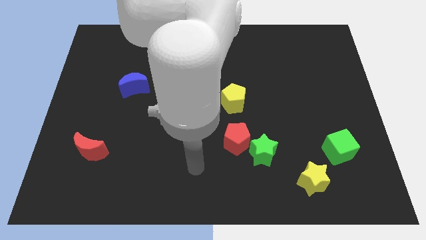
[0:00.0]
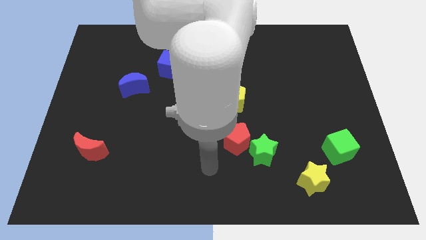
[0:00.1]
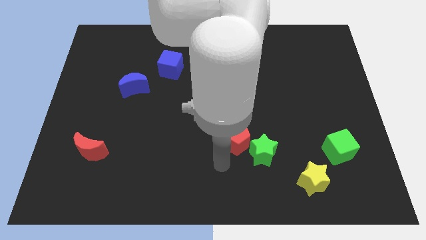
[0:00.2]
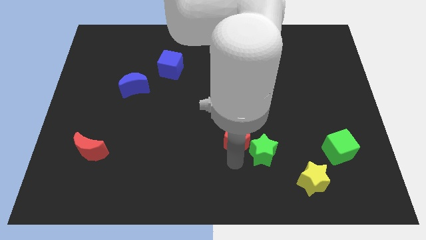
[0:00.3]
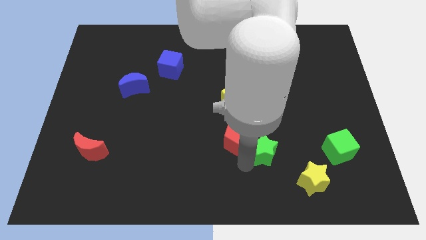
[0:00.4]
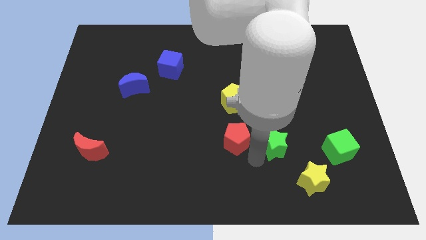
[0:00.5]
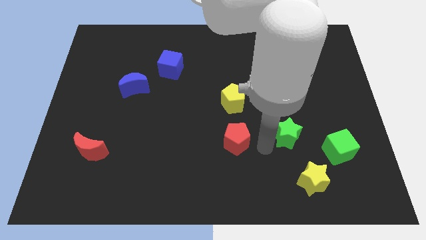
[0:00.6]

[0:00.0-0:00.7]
pull the red pentagon apart from the green star

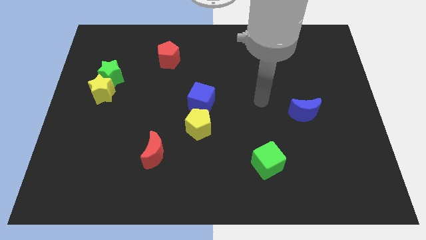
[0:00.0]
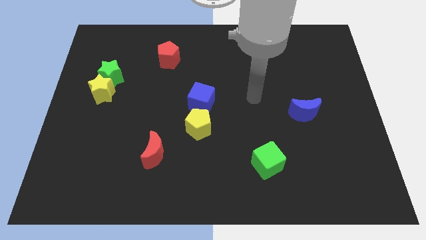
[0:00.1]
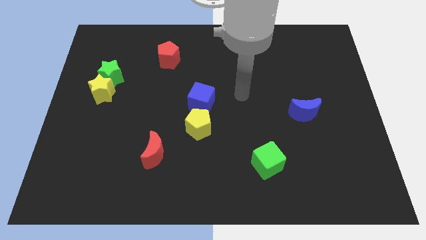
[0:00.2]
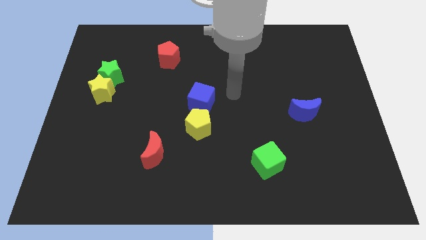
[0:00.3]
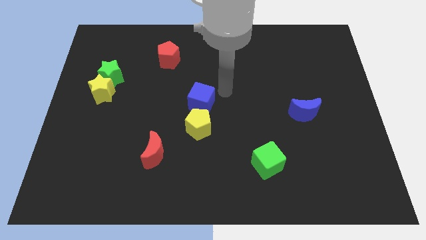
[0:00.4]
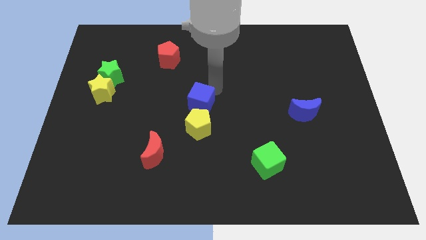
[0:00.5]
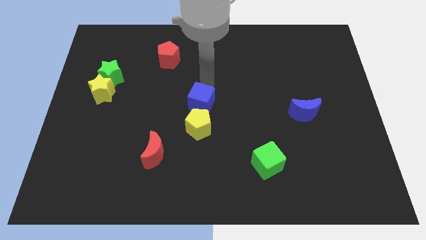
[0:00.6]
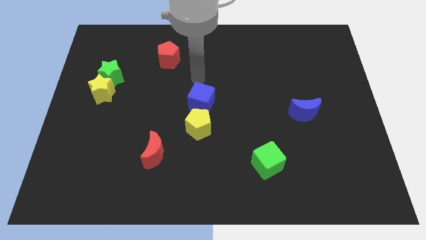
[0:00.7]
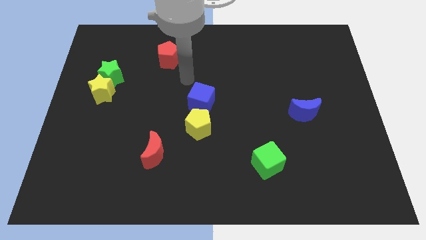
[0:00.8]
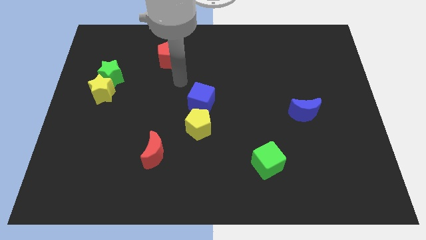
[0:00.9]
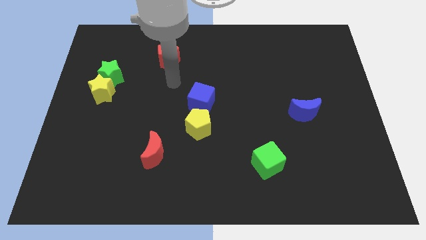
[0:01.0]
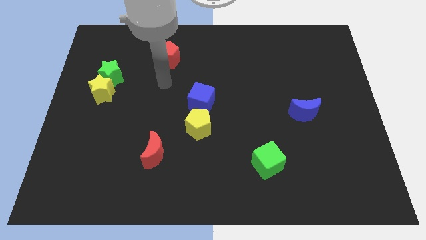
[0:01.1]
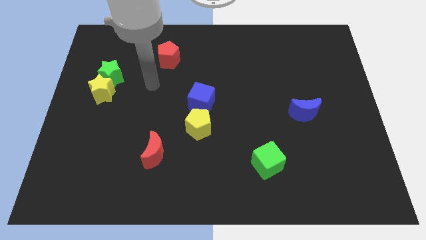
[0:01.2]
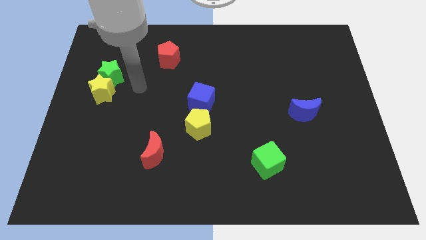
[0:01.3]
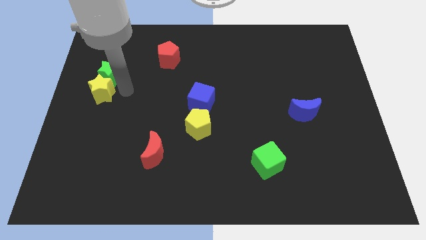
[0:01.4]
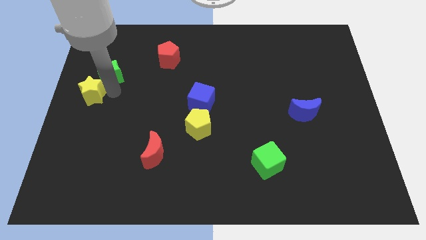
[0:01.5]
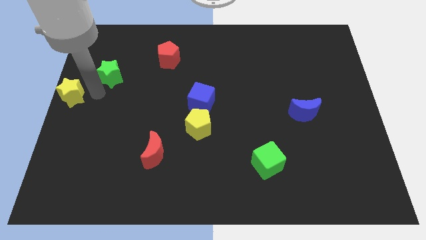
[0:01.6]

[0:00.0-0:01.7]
move the green star away from the yellow star

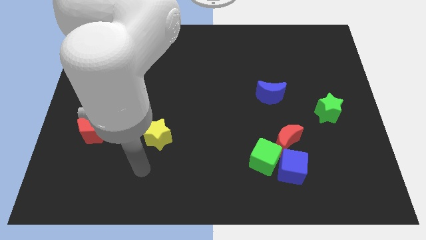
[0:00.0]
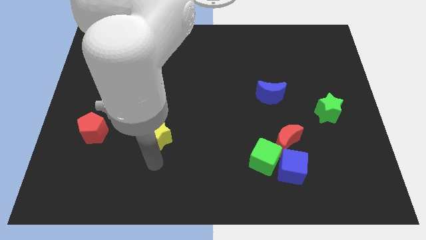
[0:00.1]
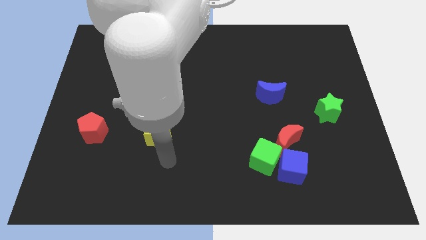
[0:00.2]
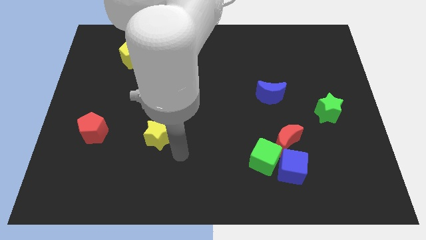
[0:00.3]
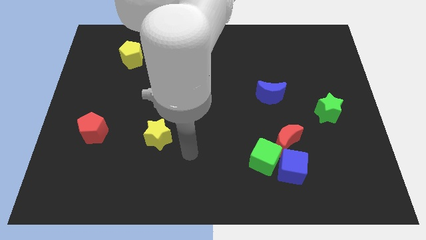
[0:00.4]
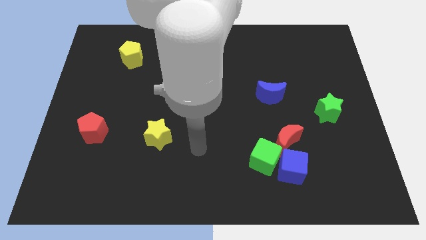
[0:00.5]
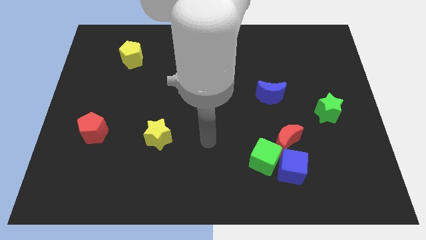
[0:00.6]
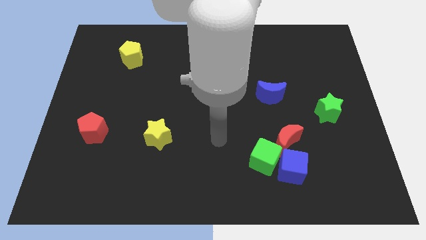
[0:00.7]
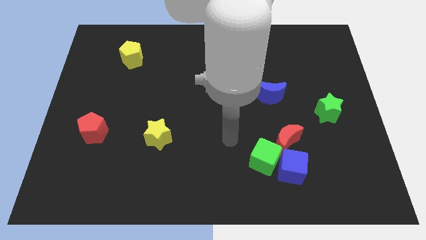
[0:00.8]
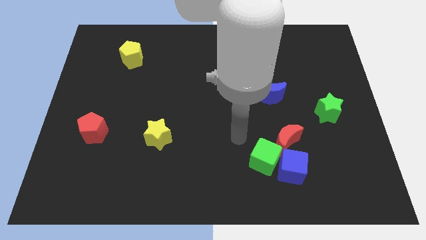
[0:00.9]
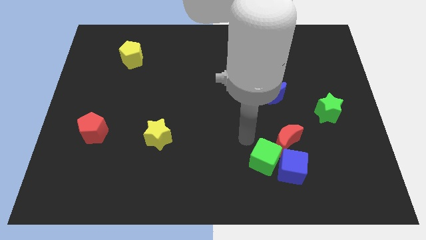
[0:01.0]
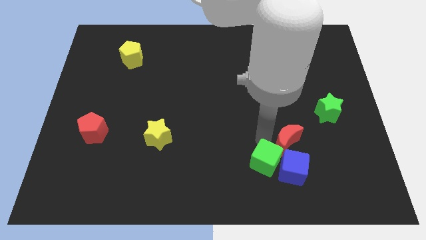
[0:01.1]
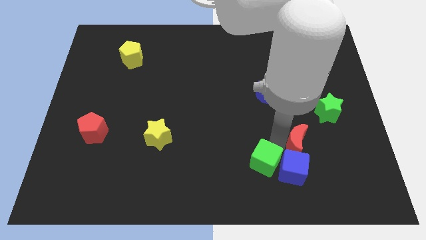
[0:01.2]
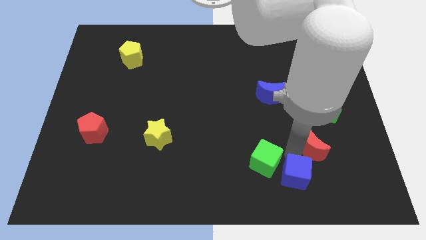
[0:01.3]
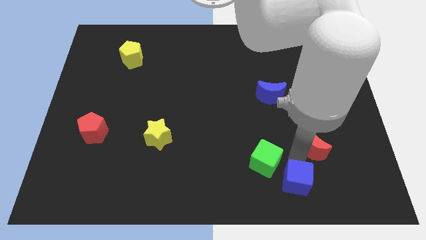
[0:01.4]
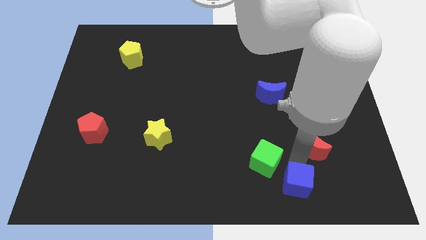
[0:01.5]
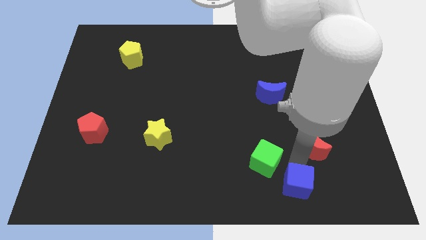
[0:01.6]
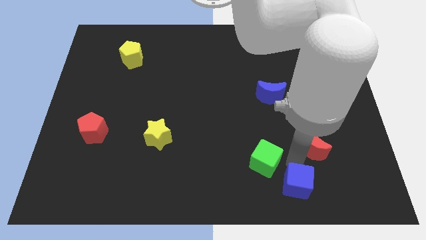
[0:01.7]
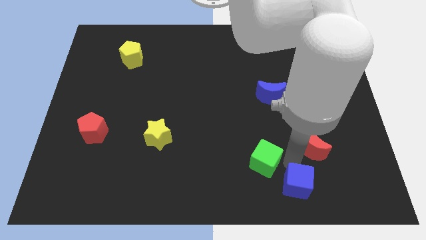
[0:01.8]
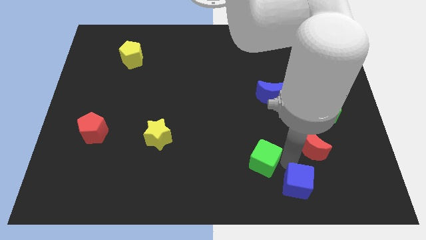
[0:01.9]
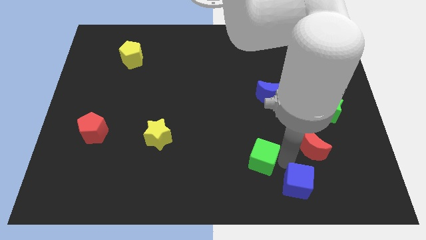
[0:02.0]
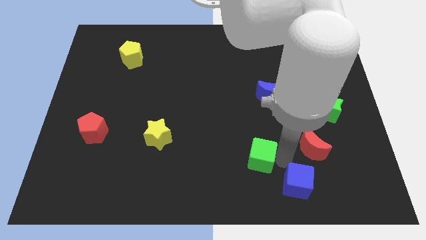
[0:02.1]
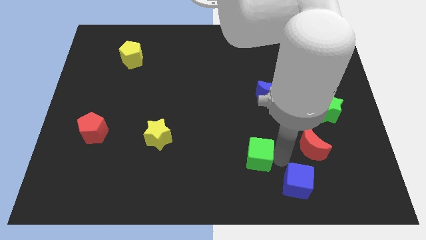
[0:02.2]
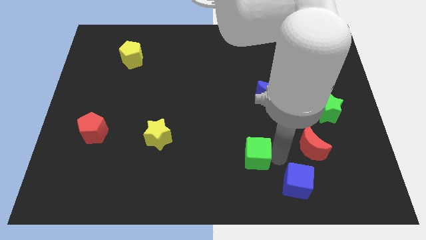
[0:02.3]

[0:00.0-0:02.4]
pull the green cube apart from the blue cube and red moon

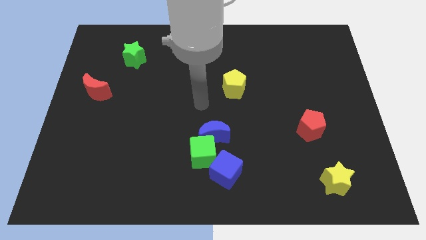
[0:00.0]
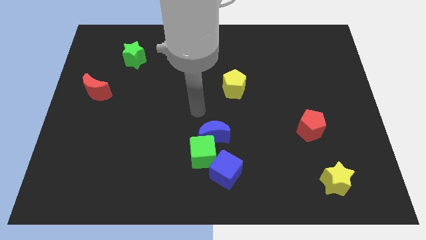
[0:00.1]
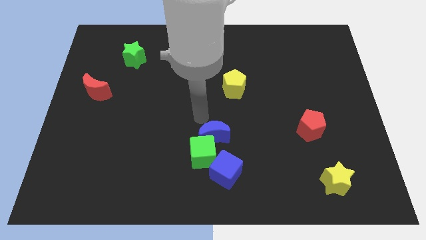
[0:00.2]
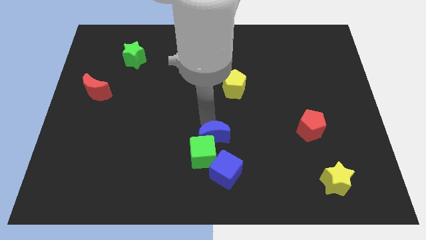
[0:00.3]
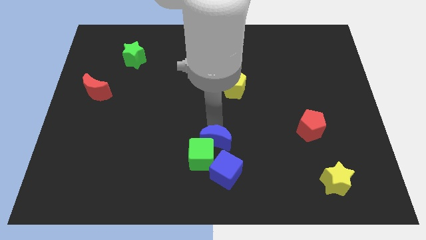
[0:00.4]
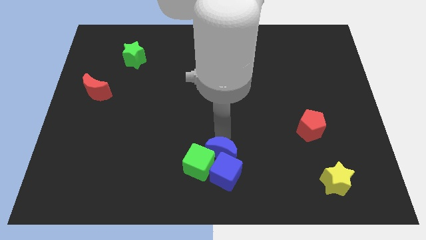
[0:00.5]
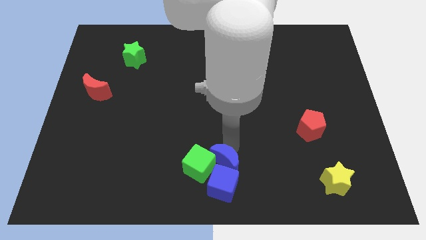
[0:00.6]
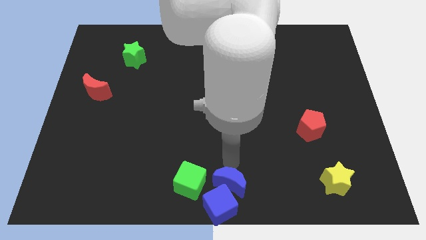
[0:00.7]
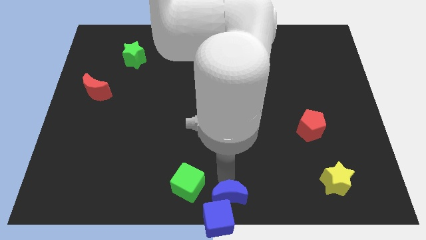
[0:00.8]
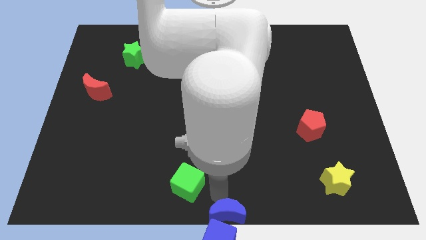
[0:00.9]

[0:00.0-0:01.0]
pull the green cube apart from the blue moon and blue cube

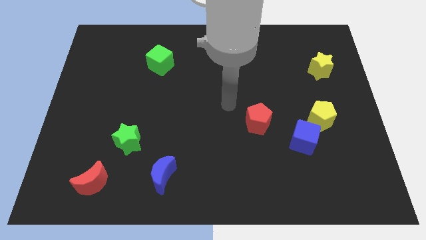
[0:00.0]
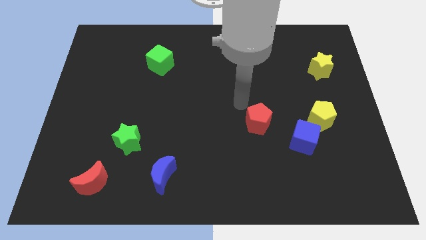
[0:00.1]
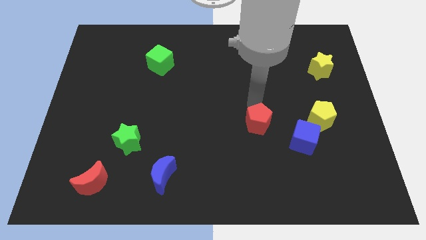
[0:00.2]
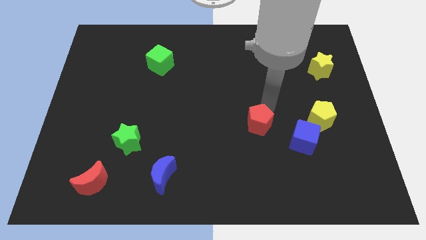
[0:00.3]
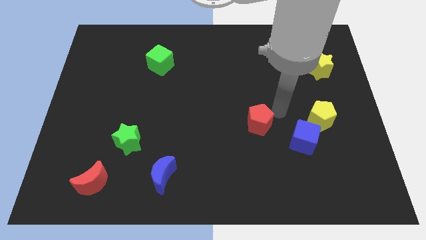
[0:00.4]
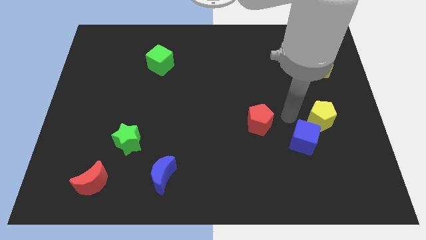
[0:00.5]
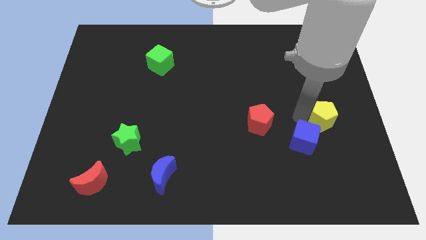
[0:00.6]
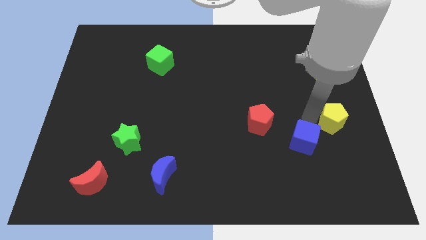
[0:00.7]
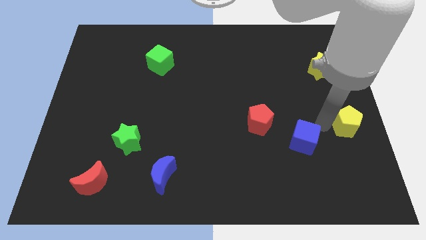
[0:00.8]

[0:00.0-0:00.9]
separate the blue cube from the yellow pentagon

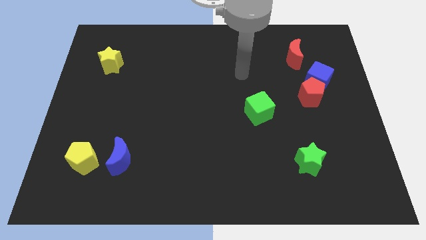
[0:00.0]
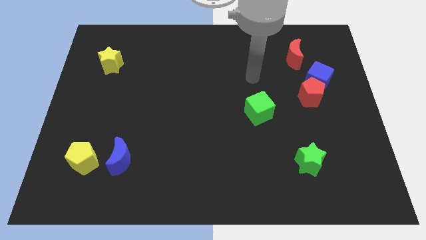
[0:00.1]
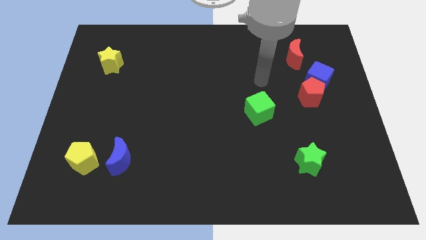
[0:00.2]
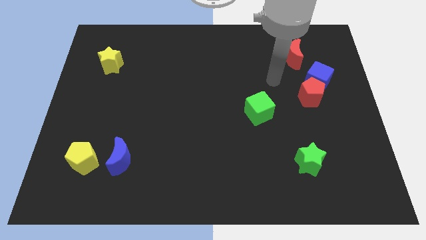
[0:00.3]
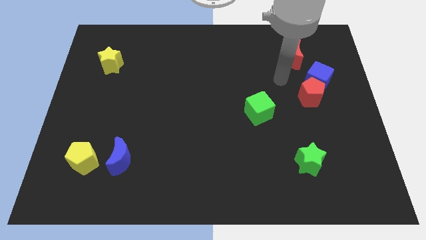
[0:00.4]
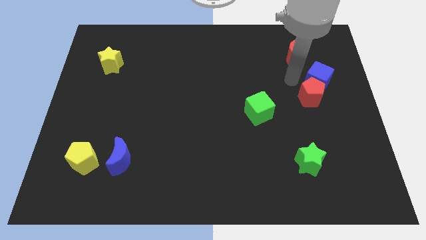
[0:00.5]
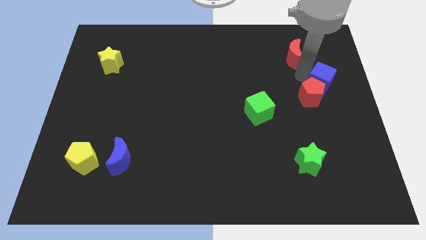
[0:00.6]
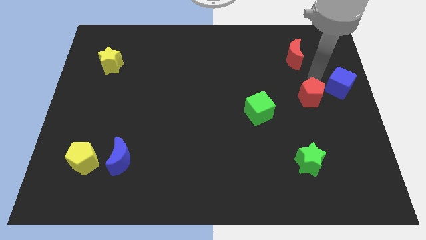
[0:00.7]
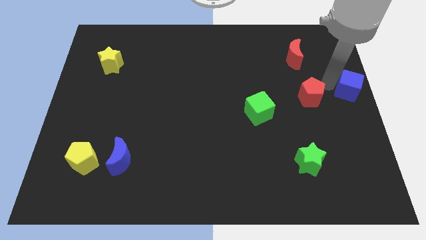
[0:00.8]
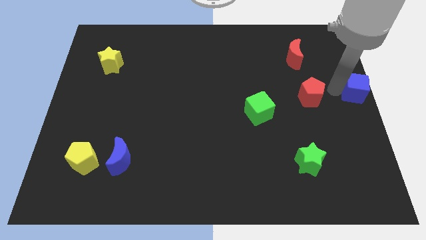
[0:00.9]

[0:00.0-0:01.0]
separate the red pentagon from the blue cube

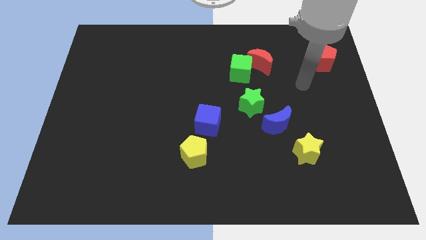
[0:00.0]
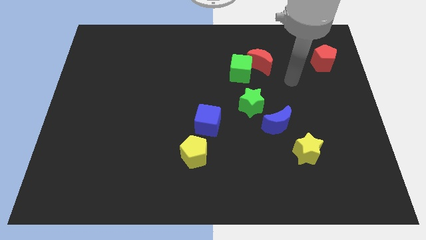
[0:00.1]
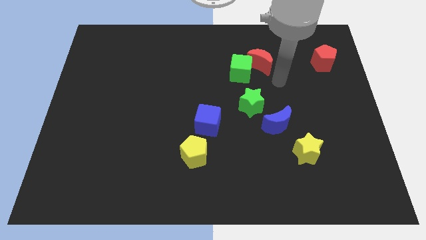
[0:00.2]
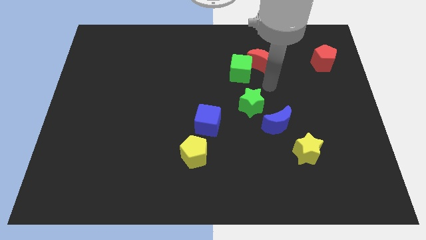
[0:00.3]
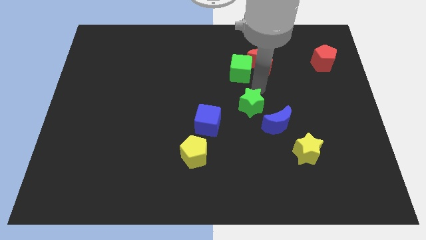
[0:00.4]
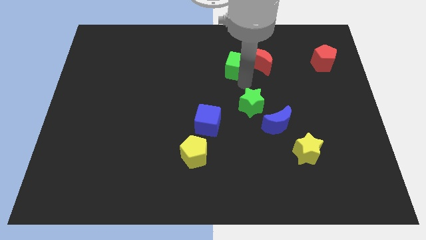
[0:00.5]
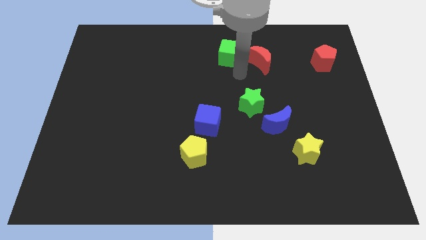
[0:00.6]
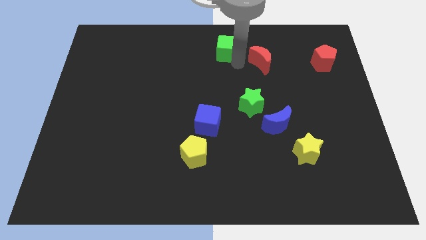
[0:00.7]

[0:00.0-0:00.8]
move the red moon away from the green cube

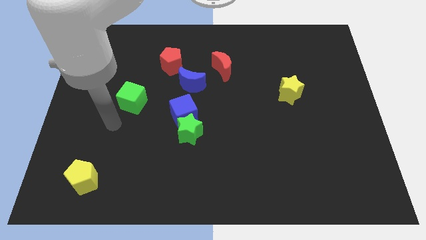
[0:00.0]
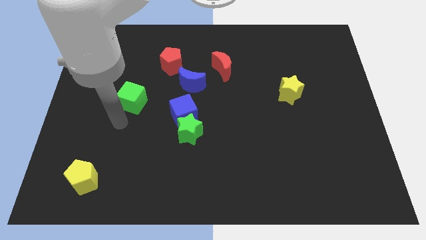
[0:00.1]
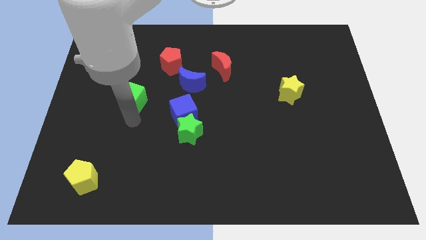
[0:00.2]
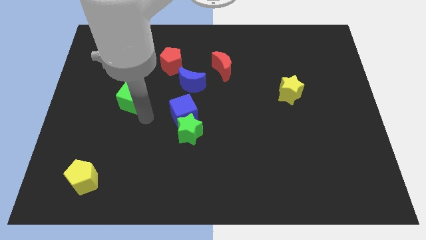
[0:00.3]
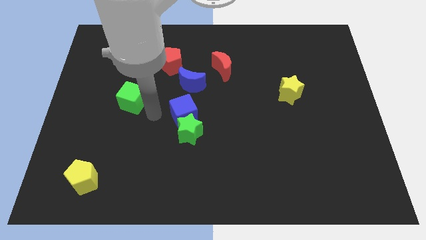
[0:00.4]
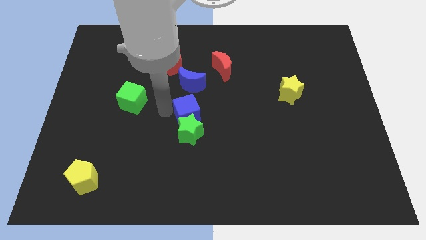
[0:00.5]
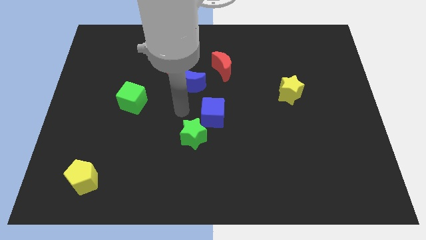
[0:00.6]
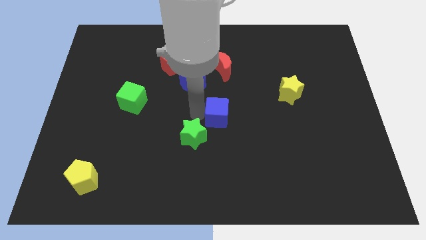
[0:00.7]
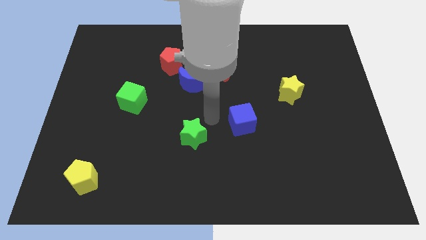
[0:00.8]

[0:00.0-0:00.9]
move the green star away from the blue cube
